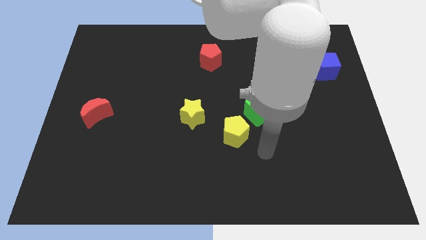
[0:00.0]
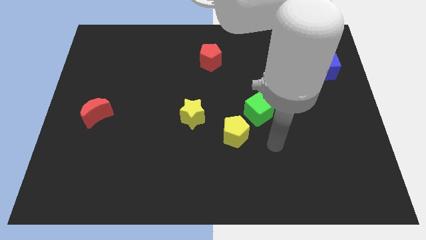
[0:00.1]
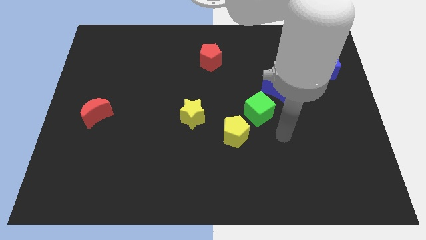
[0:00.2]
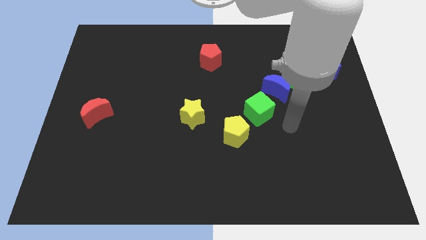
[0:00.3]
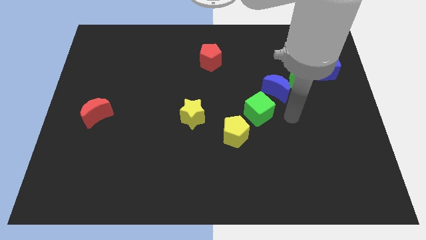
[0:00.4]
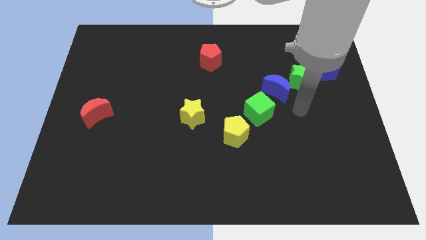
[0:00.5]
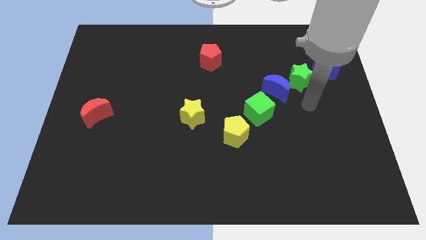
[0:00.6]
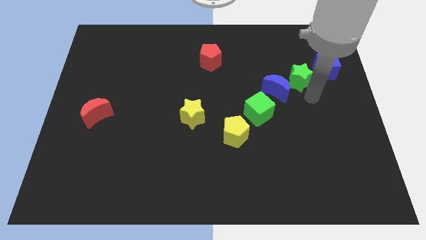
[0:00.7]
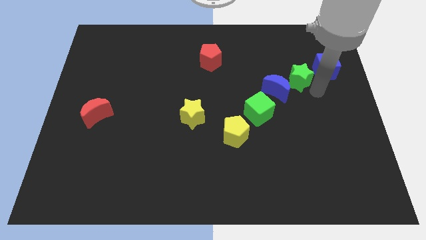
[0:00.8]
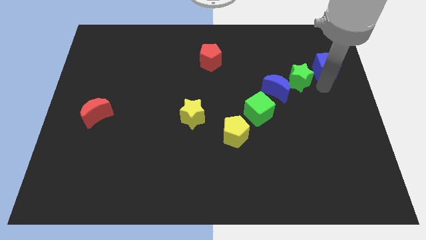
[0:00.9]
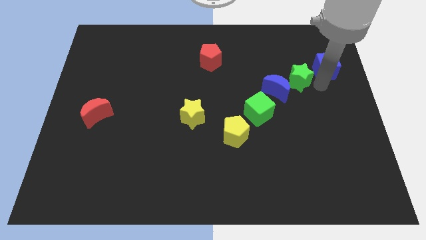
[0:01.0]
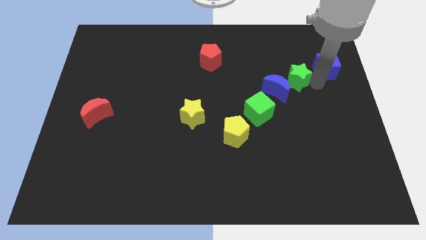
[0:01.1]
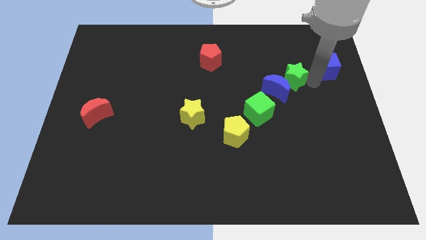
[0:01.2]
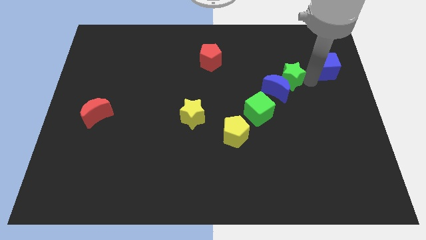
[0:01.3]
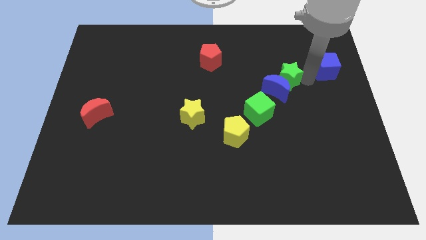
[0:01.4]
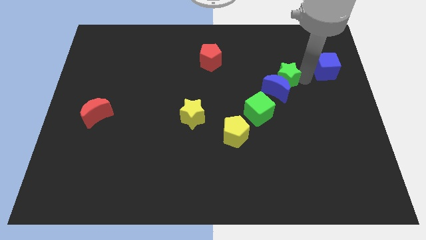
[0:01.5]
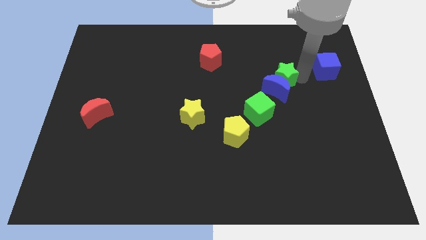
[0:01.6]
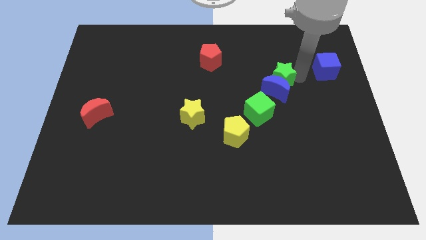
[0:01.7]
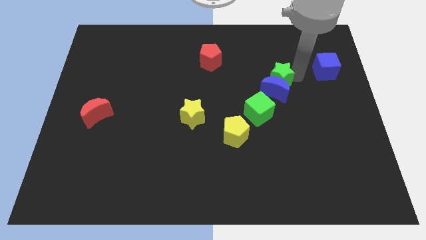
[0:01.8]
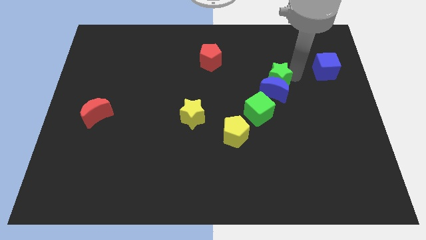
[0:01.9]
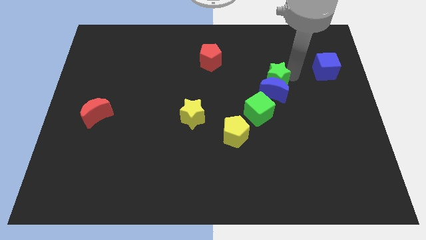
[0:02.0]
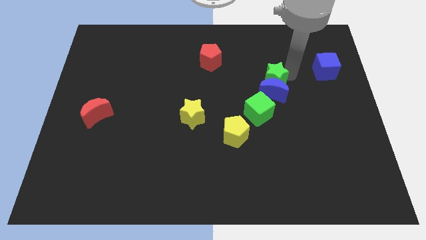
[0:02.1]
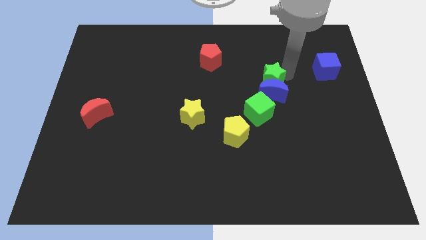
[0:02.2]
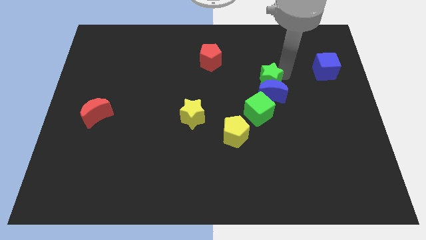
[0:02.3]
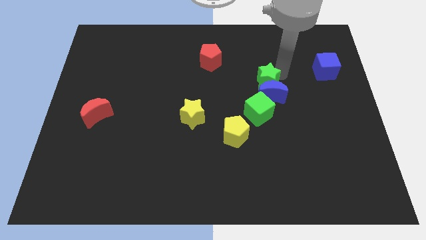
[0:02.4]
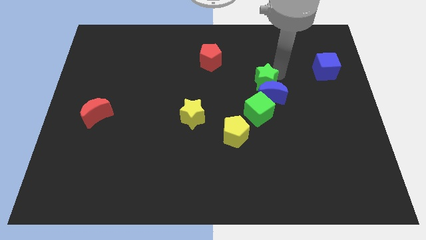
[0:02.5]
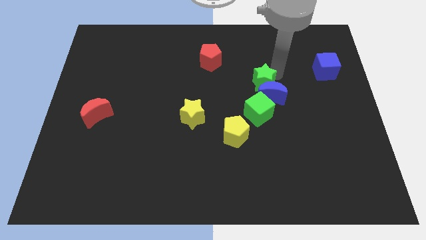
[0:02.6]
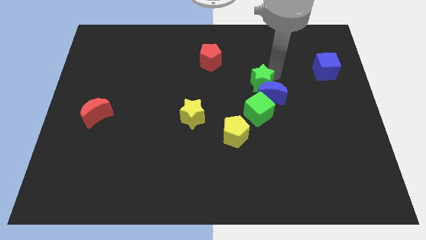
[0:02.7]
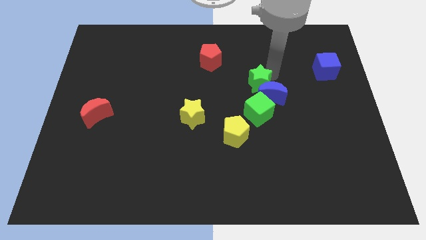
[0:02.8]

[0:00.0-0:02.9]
separate the green star from the blue moon and blue cube

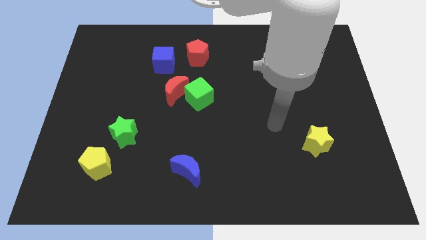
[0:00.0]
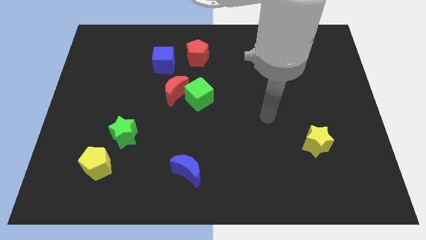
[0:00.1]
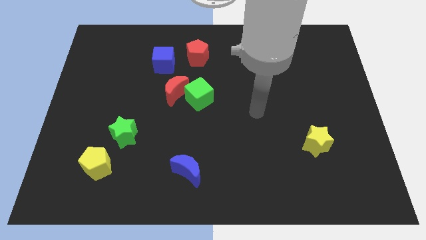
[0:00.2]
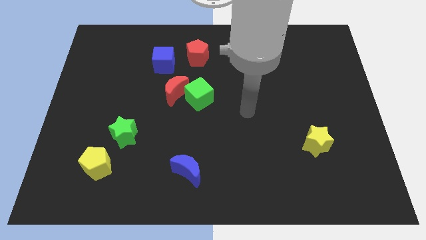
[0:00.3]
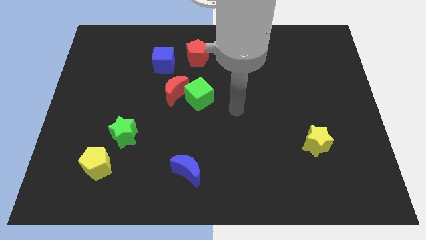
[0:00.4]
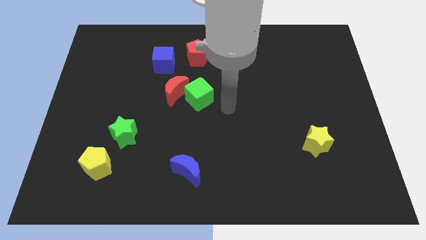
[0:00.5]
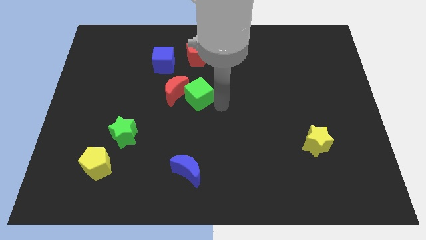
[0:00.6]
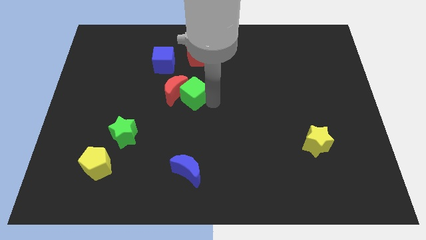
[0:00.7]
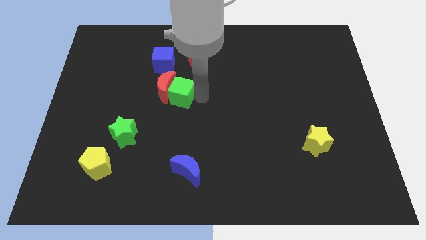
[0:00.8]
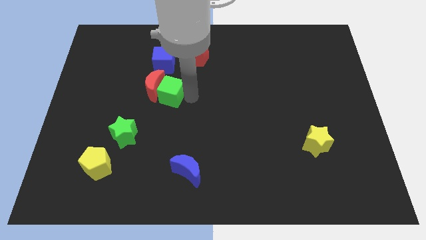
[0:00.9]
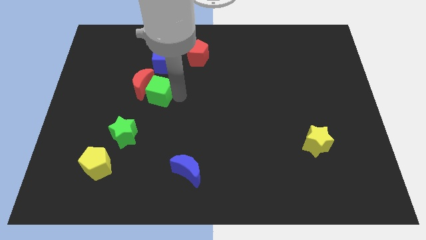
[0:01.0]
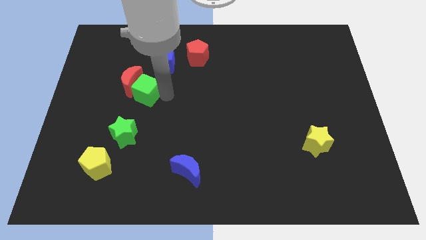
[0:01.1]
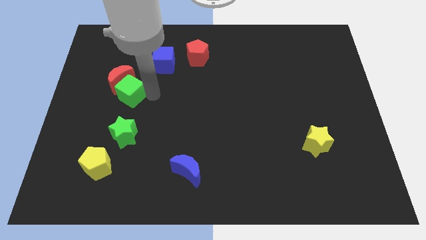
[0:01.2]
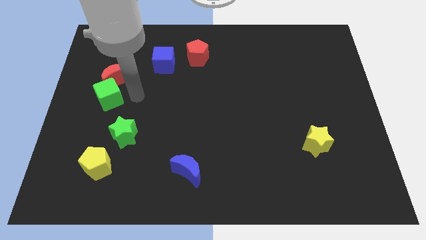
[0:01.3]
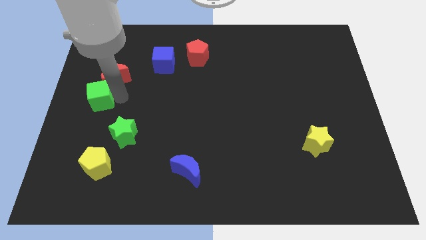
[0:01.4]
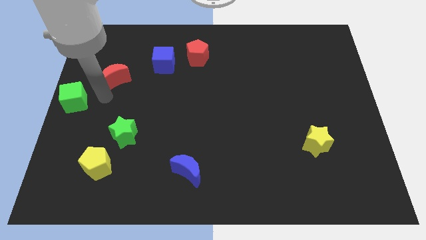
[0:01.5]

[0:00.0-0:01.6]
separate the red moon from the green cube

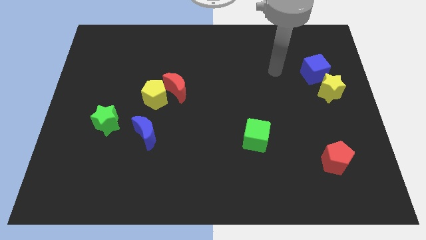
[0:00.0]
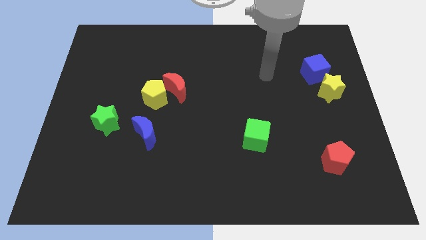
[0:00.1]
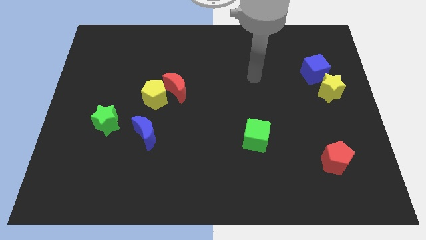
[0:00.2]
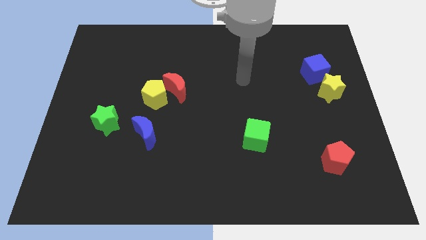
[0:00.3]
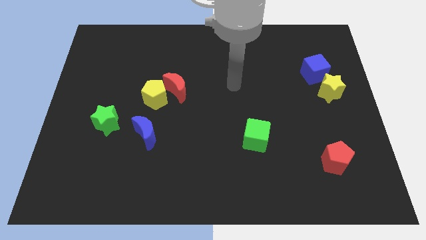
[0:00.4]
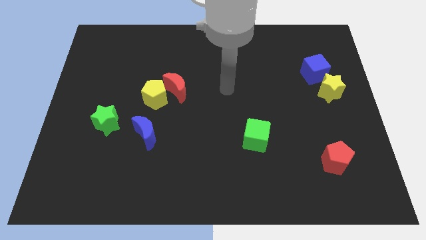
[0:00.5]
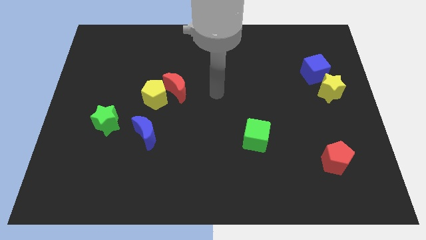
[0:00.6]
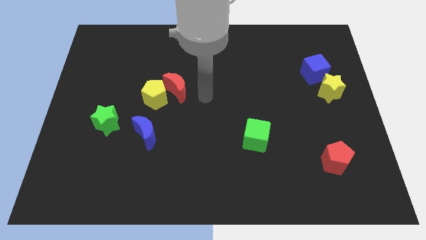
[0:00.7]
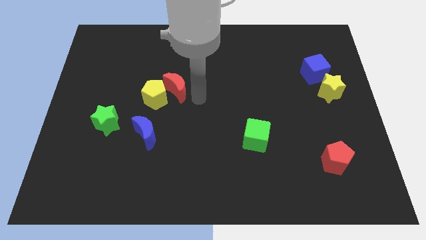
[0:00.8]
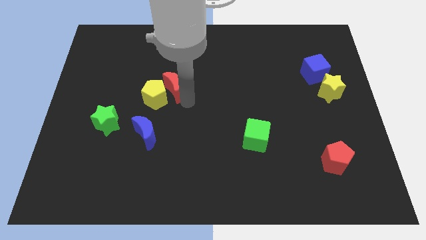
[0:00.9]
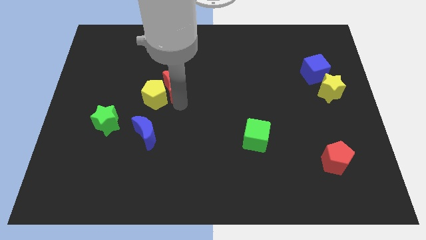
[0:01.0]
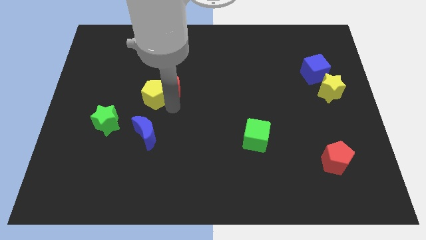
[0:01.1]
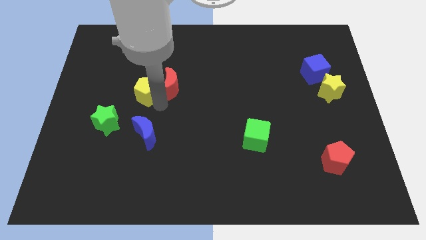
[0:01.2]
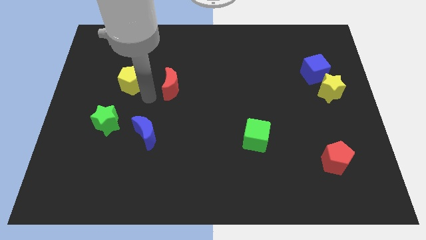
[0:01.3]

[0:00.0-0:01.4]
pull the red moon apart from the yellow pentagon

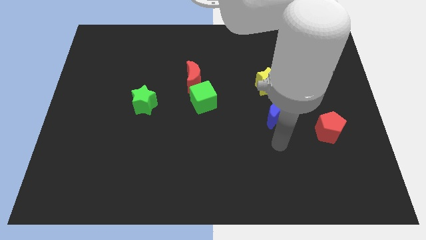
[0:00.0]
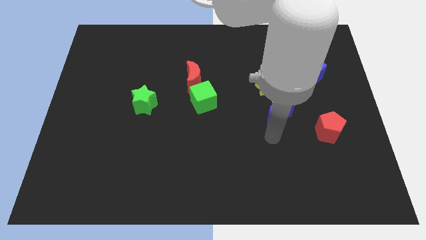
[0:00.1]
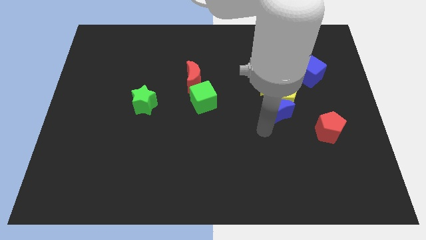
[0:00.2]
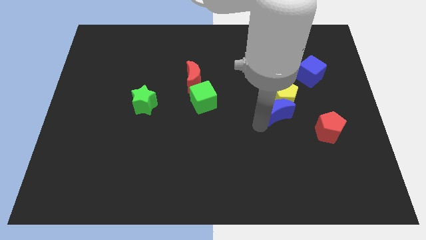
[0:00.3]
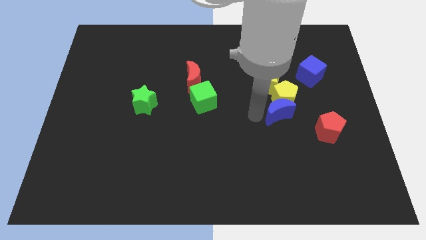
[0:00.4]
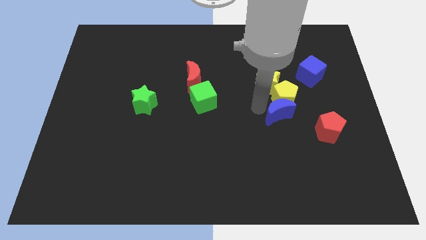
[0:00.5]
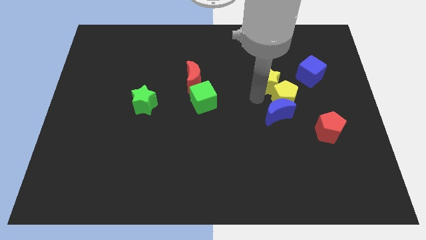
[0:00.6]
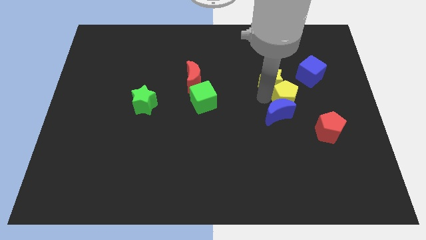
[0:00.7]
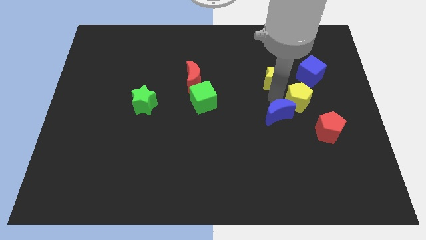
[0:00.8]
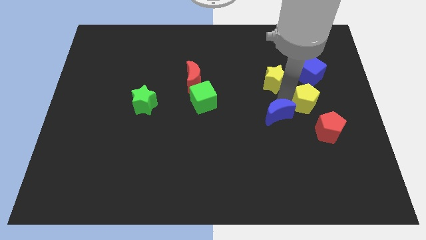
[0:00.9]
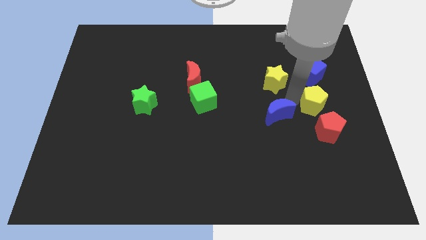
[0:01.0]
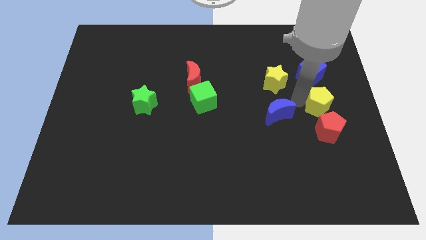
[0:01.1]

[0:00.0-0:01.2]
separate the yellow pentagon from the blue moon and yellow star

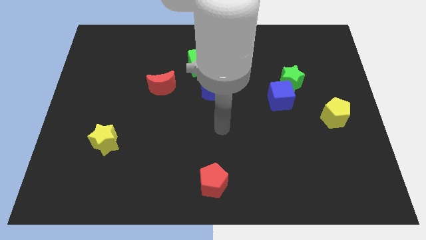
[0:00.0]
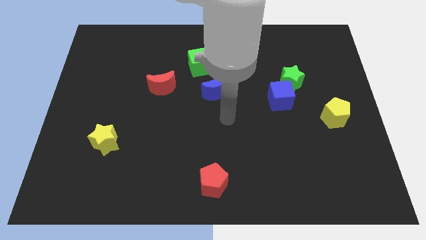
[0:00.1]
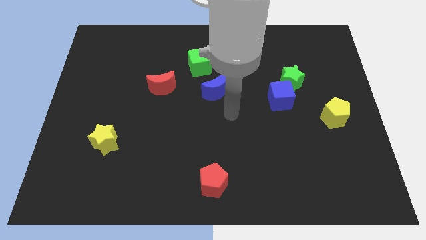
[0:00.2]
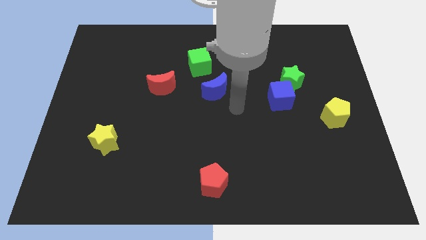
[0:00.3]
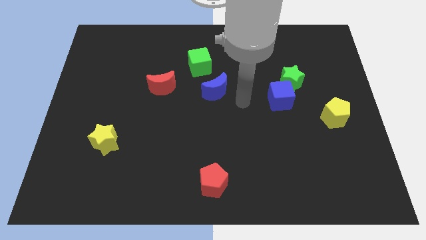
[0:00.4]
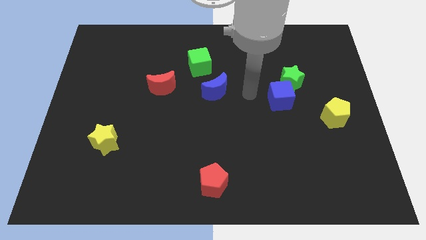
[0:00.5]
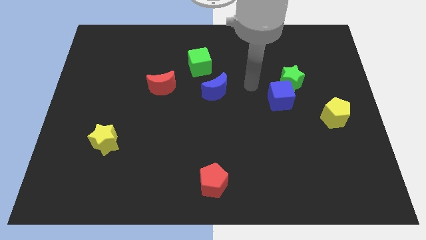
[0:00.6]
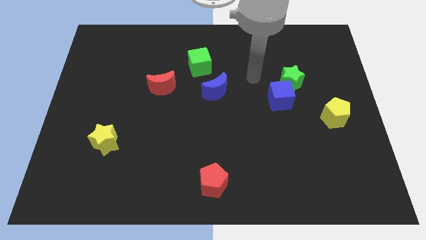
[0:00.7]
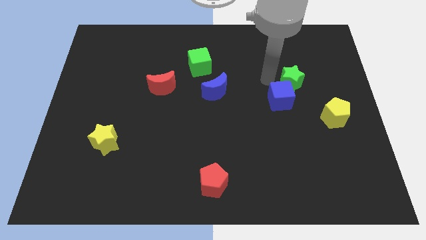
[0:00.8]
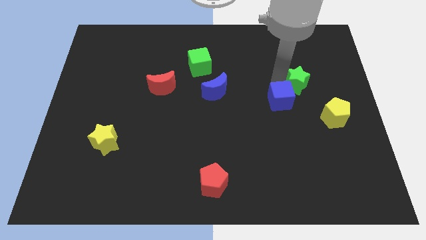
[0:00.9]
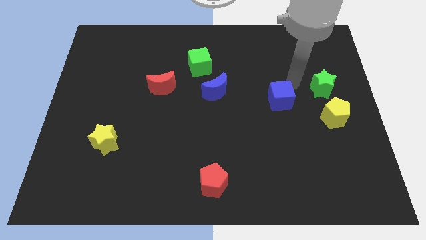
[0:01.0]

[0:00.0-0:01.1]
separate the blue cube from the green star

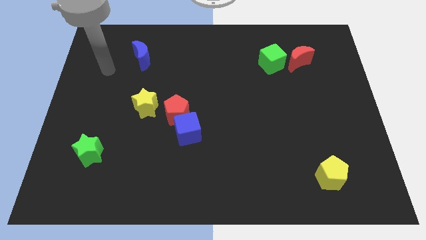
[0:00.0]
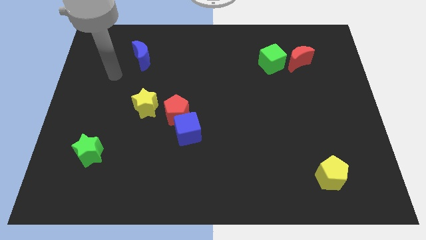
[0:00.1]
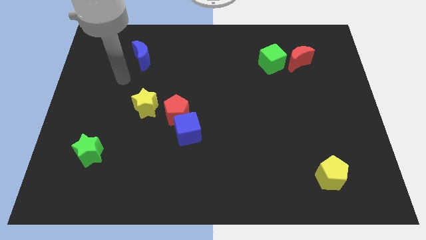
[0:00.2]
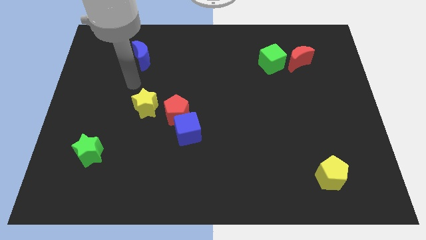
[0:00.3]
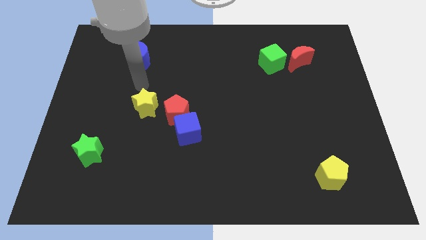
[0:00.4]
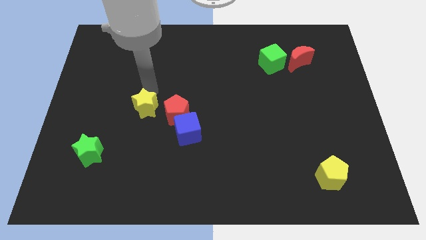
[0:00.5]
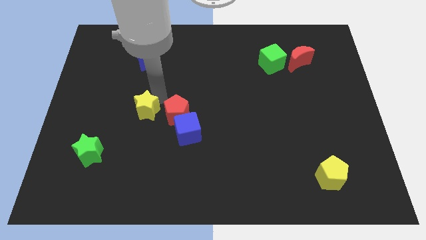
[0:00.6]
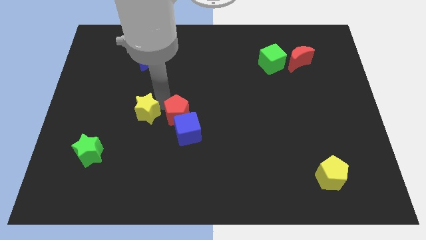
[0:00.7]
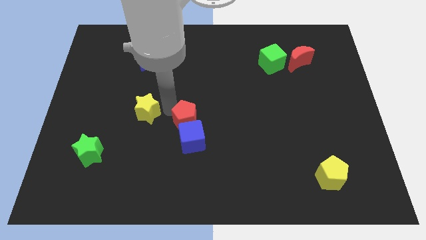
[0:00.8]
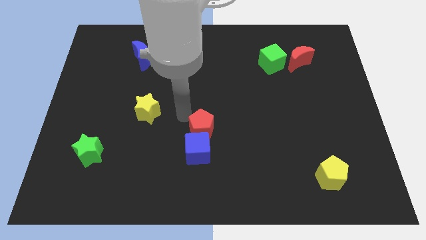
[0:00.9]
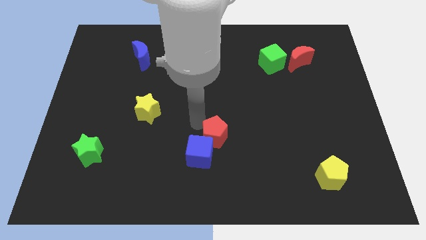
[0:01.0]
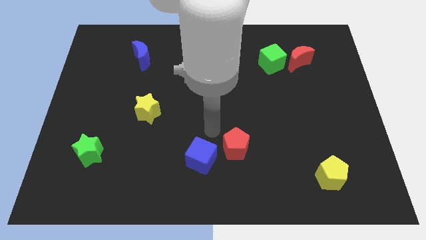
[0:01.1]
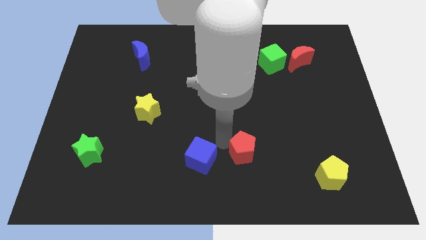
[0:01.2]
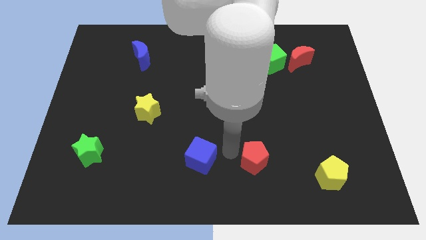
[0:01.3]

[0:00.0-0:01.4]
pull the blue cube apart from the red pentagon
